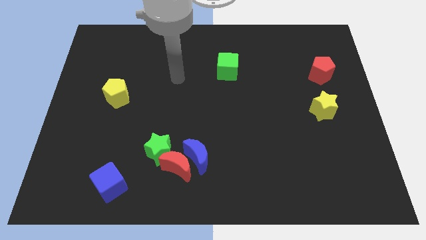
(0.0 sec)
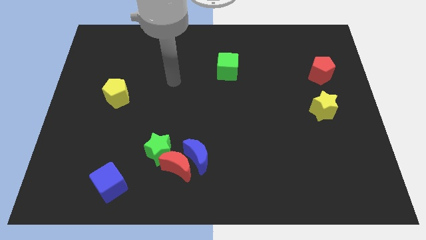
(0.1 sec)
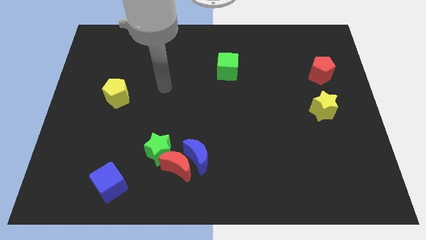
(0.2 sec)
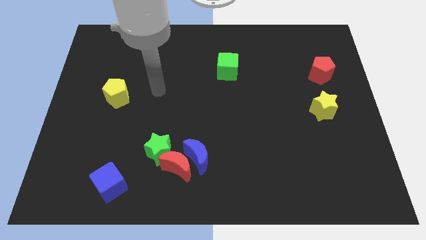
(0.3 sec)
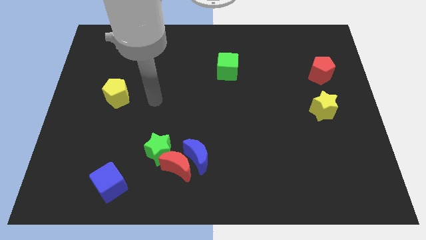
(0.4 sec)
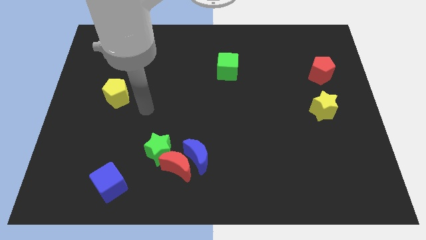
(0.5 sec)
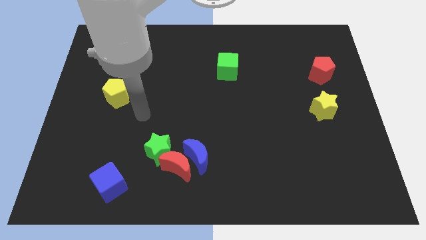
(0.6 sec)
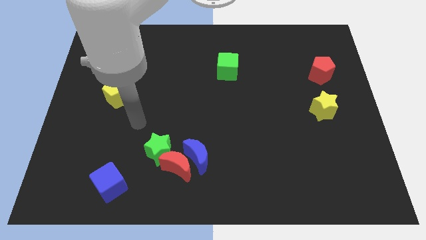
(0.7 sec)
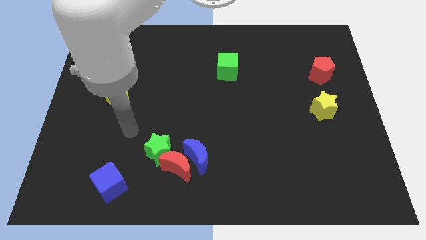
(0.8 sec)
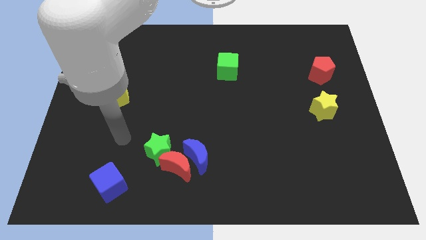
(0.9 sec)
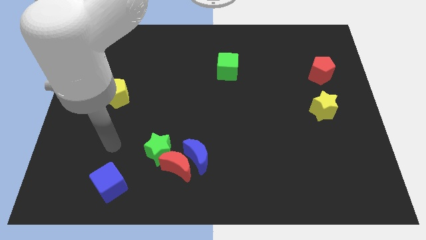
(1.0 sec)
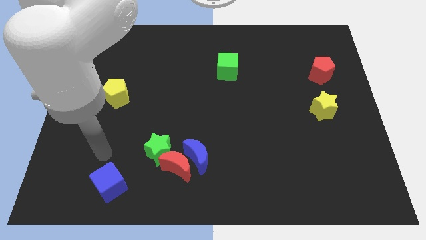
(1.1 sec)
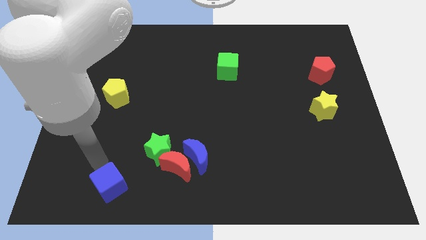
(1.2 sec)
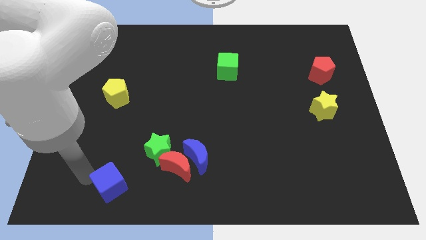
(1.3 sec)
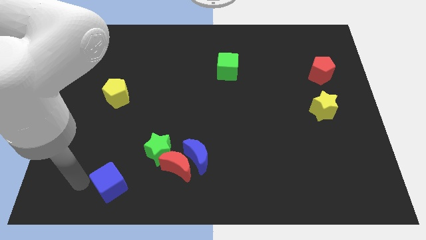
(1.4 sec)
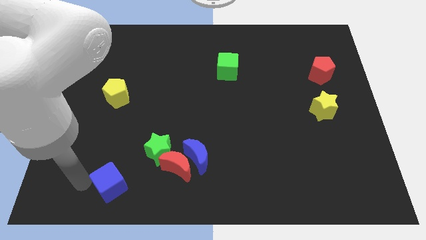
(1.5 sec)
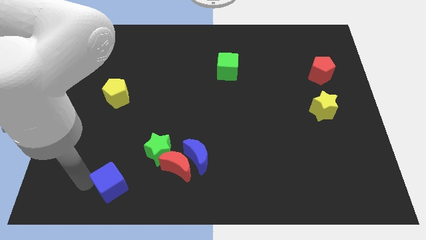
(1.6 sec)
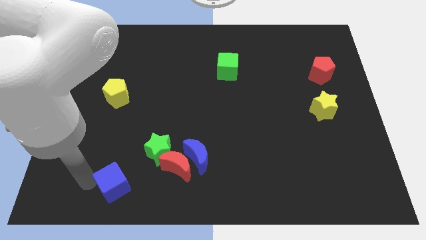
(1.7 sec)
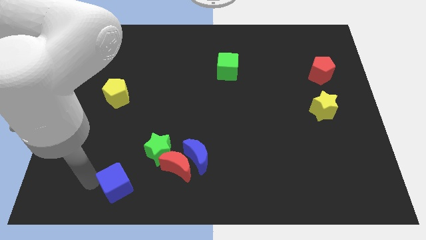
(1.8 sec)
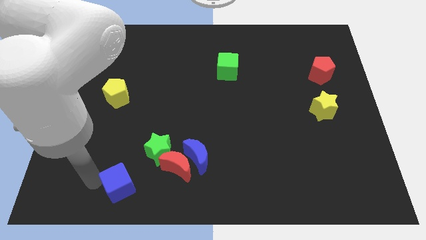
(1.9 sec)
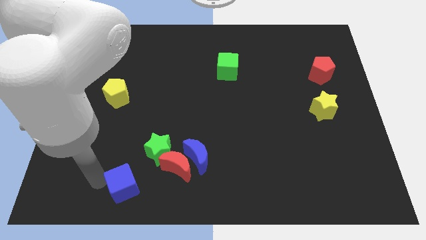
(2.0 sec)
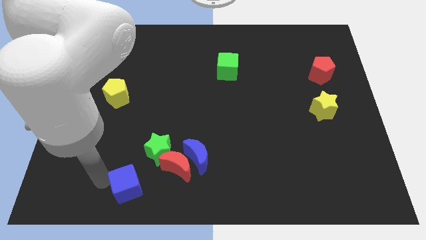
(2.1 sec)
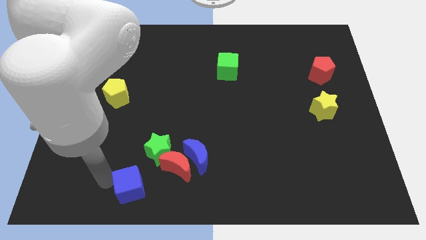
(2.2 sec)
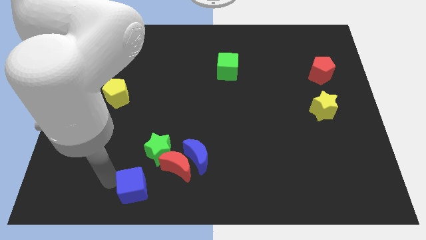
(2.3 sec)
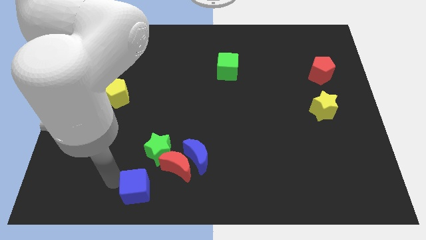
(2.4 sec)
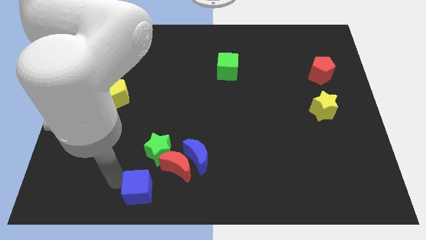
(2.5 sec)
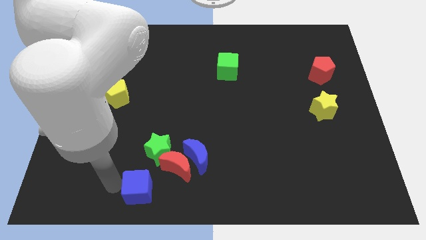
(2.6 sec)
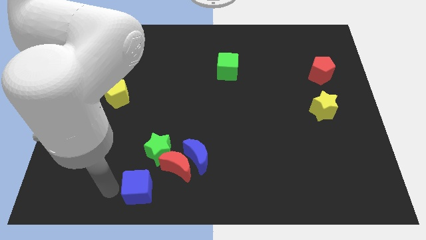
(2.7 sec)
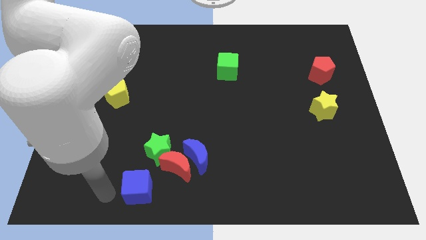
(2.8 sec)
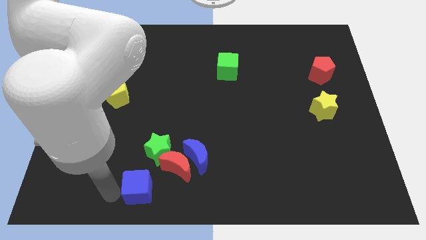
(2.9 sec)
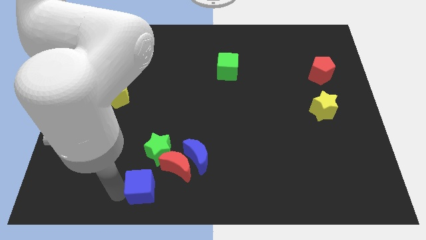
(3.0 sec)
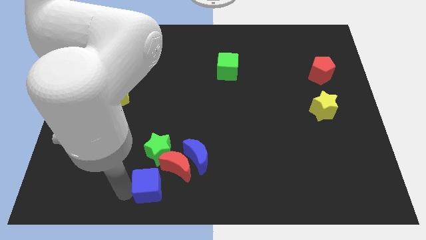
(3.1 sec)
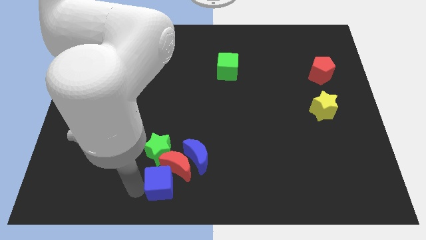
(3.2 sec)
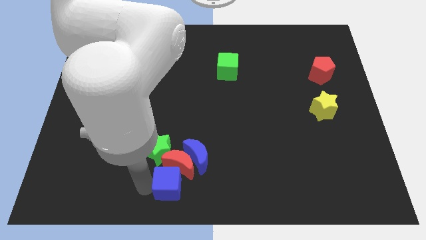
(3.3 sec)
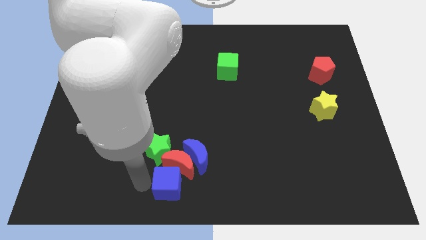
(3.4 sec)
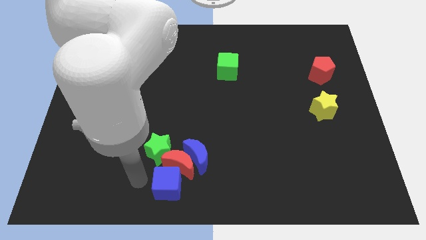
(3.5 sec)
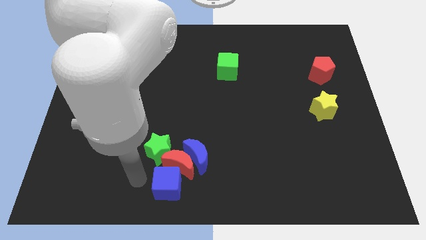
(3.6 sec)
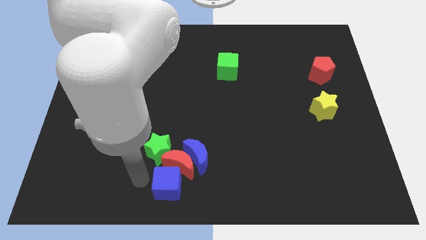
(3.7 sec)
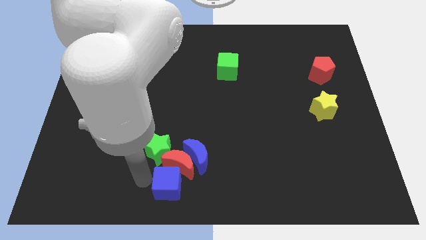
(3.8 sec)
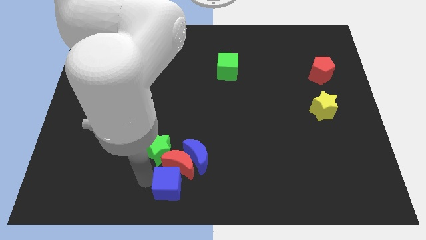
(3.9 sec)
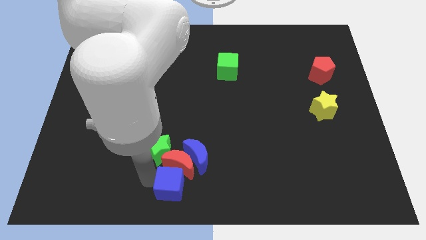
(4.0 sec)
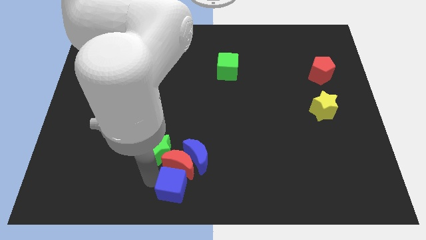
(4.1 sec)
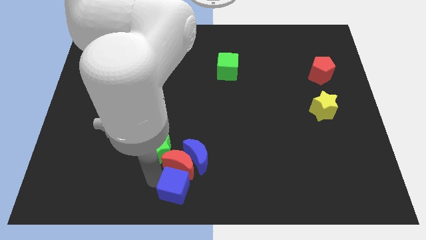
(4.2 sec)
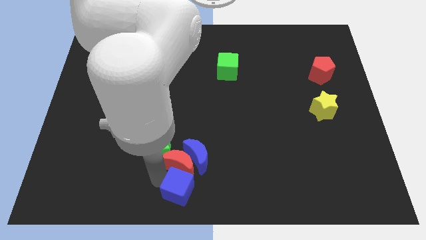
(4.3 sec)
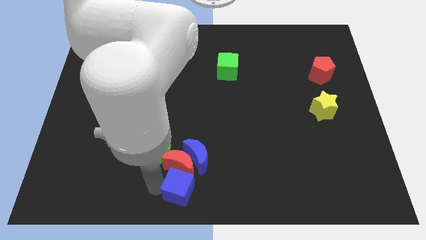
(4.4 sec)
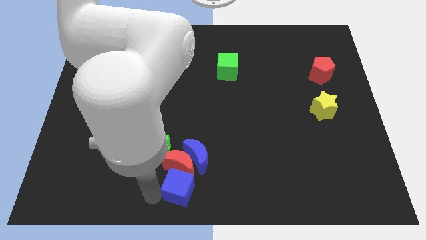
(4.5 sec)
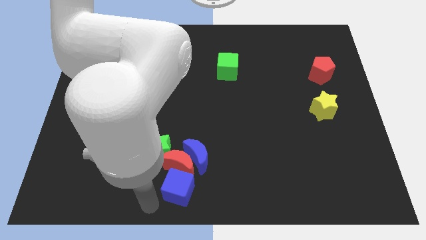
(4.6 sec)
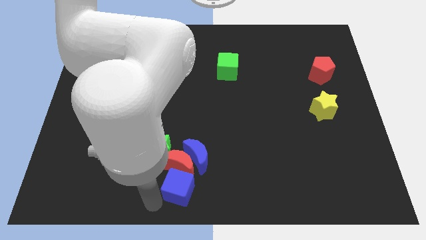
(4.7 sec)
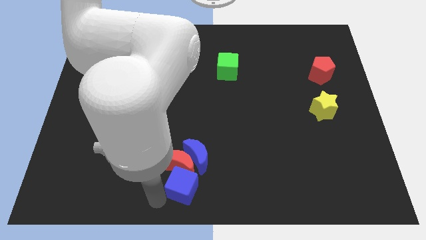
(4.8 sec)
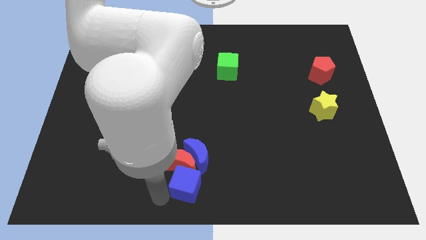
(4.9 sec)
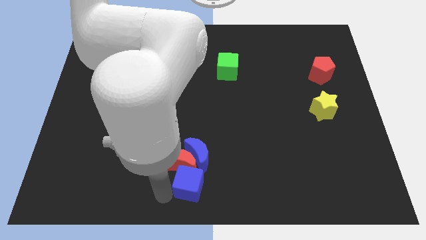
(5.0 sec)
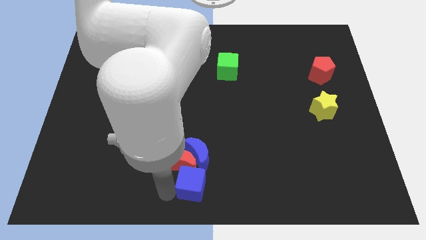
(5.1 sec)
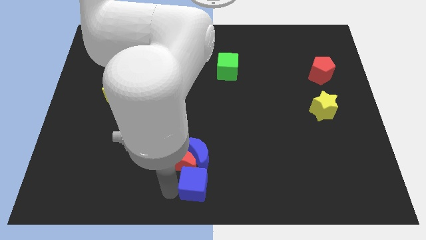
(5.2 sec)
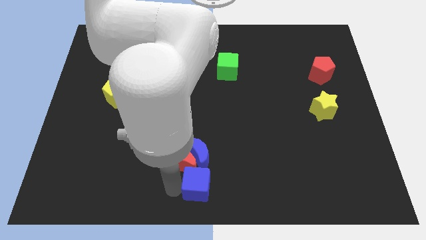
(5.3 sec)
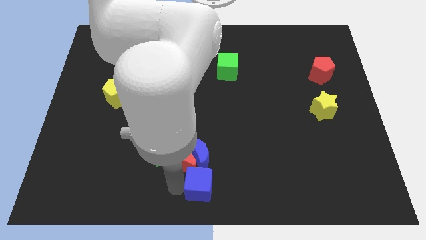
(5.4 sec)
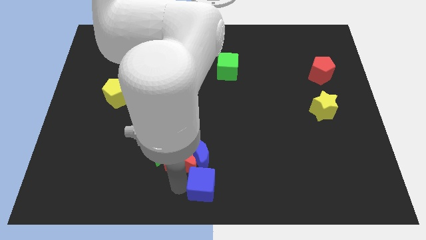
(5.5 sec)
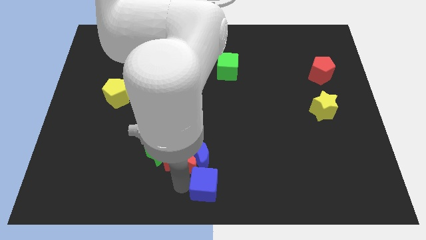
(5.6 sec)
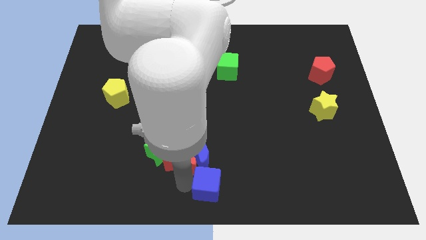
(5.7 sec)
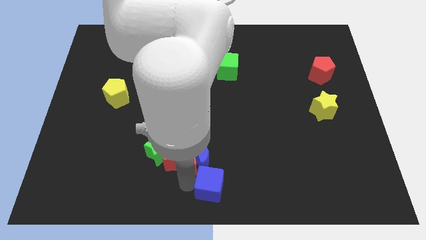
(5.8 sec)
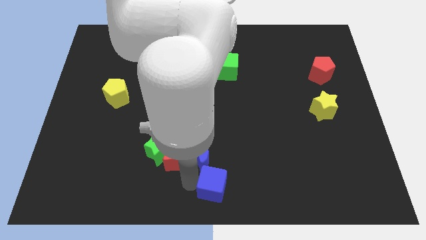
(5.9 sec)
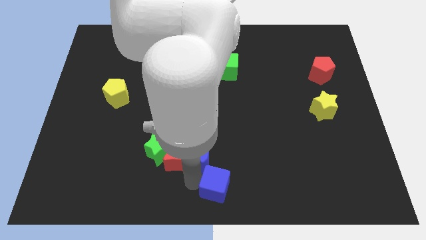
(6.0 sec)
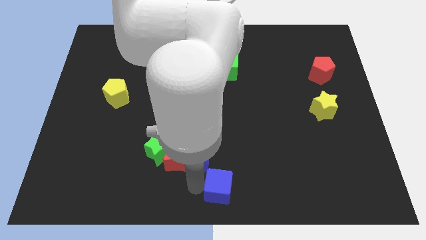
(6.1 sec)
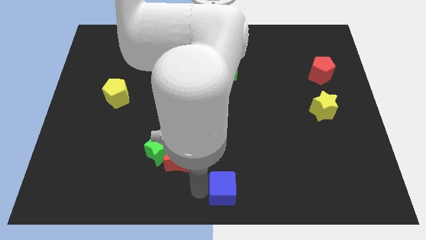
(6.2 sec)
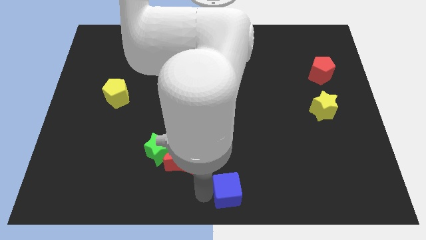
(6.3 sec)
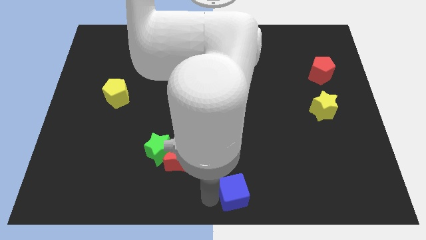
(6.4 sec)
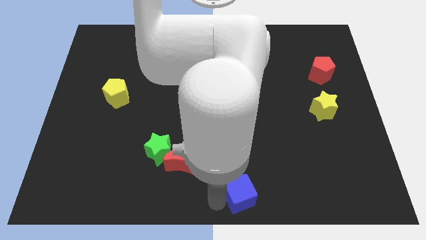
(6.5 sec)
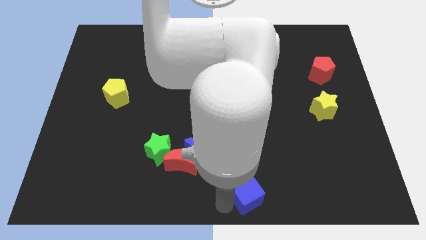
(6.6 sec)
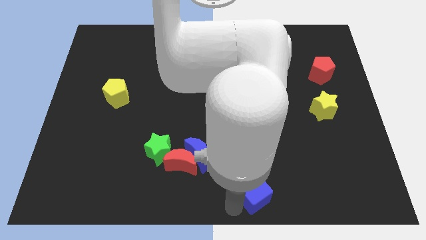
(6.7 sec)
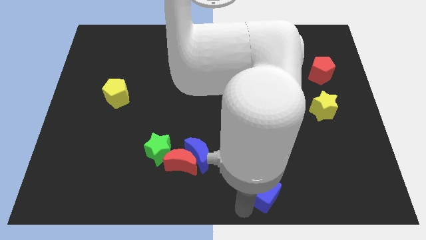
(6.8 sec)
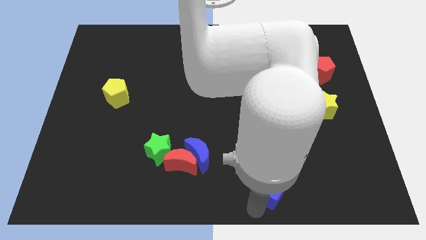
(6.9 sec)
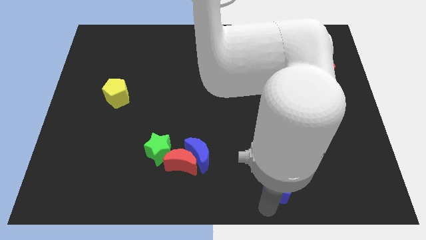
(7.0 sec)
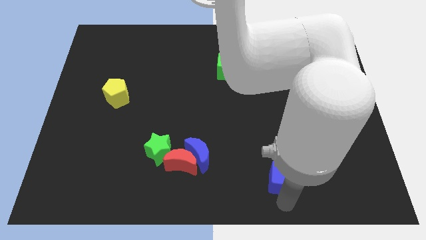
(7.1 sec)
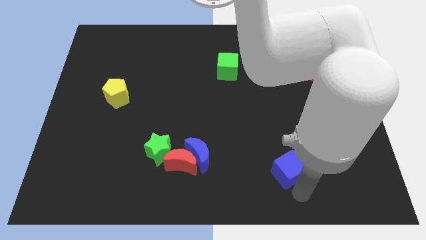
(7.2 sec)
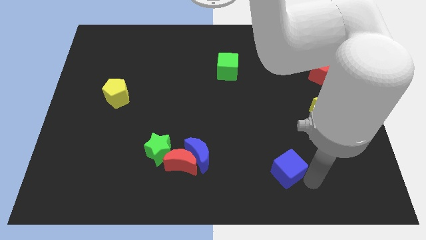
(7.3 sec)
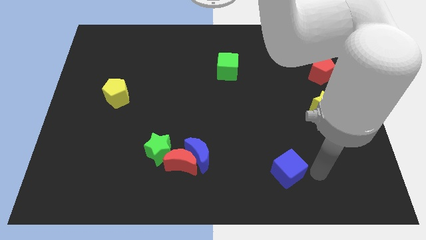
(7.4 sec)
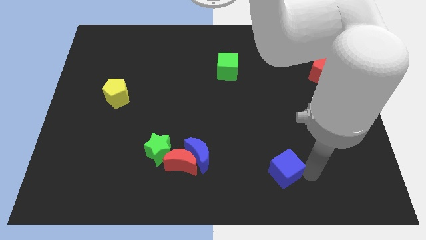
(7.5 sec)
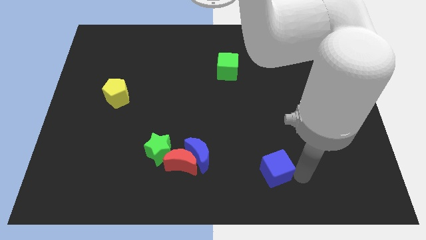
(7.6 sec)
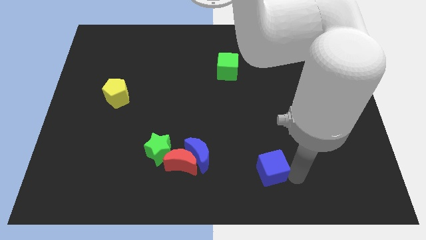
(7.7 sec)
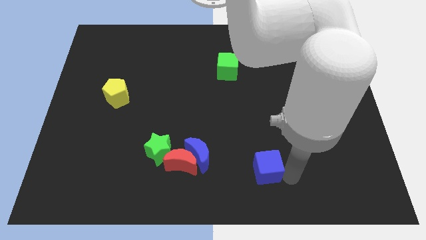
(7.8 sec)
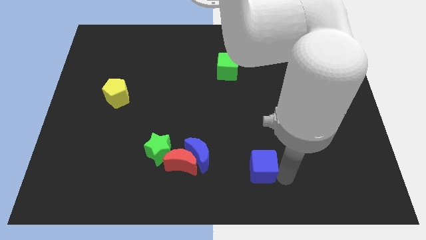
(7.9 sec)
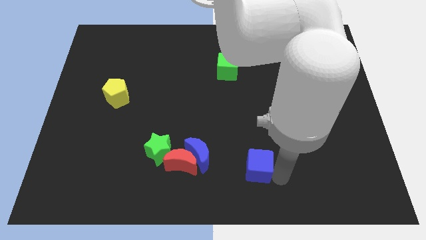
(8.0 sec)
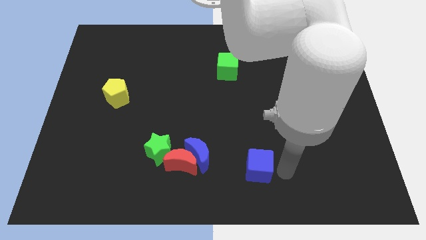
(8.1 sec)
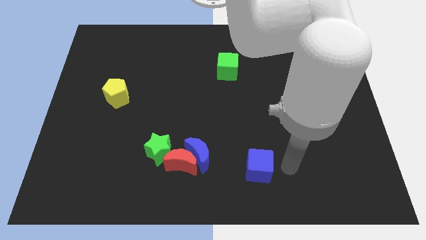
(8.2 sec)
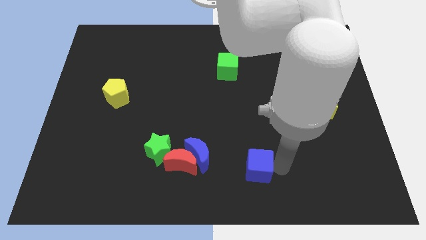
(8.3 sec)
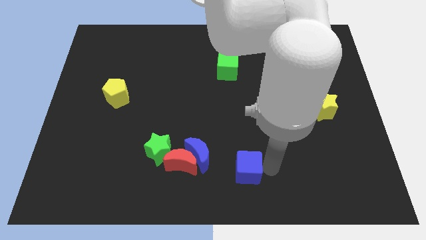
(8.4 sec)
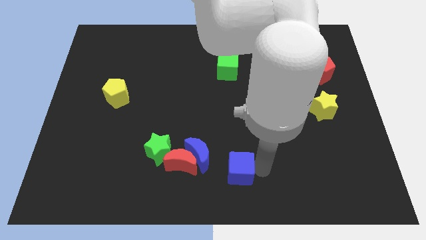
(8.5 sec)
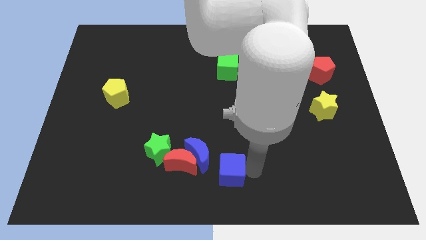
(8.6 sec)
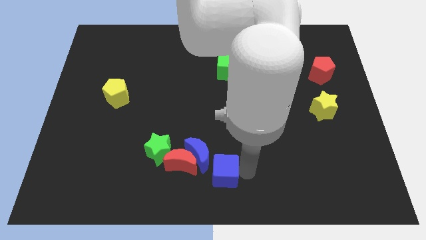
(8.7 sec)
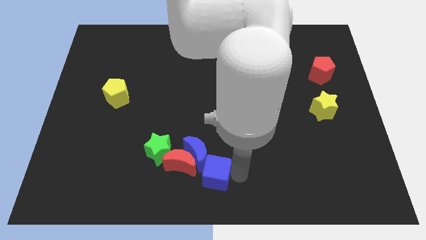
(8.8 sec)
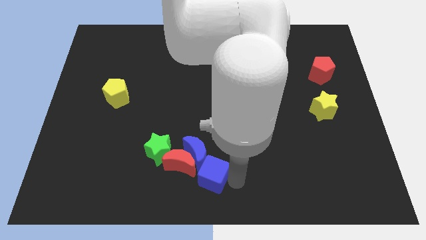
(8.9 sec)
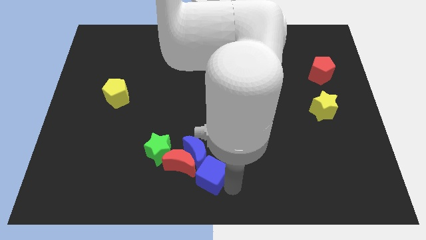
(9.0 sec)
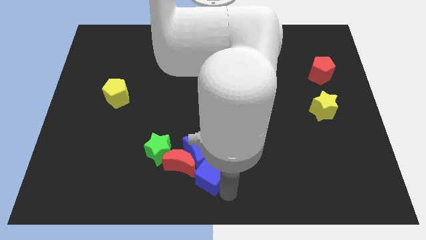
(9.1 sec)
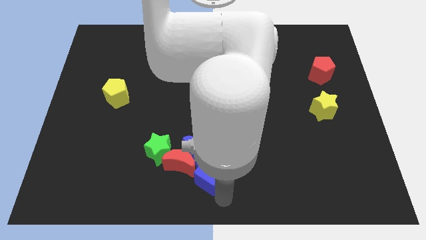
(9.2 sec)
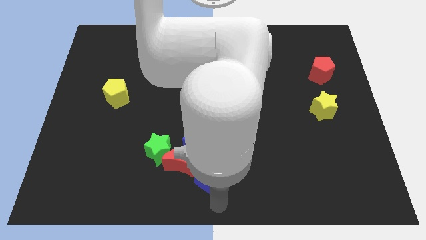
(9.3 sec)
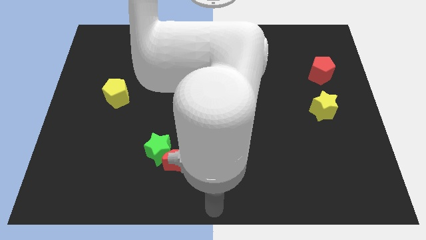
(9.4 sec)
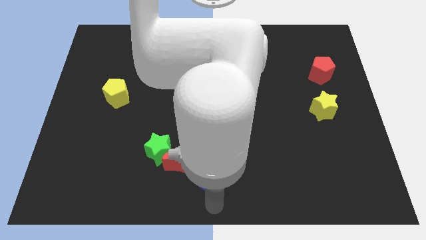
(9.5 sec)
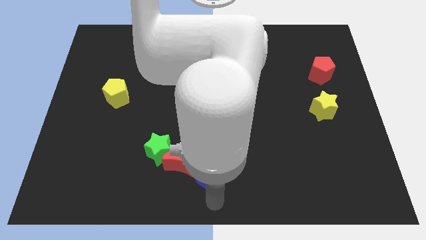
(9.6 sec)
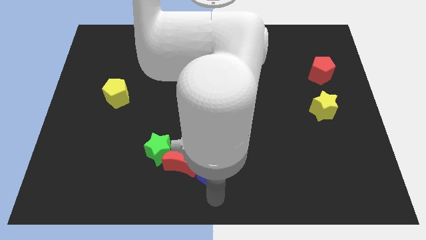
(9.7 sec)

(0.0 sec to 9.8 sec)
put the blue cube just right of the green star
